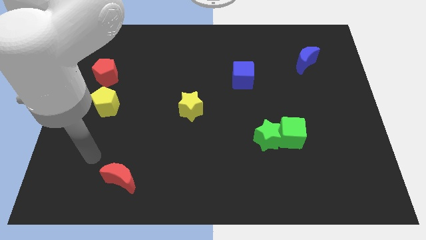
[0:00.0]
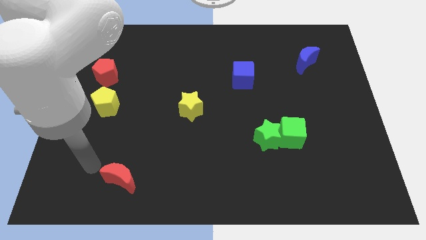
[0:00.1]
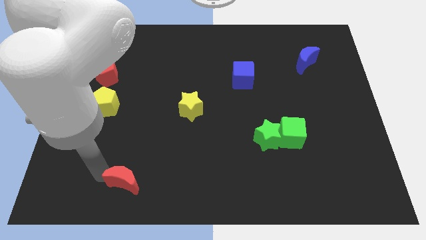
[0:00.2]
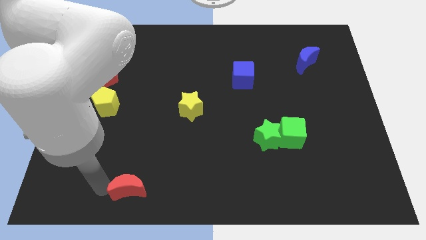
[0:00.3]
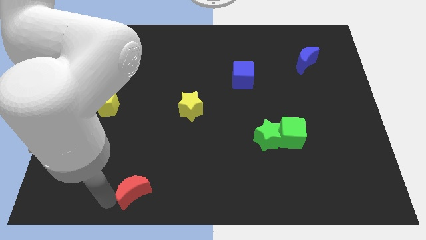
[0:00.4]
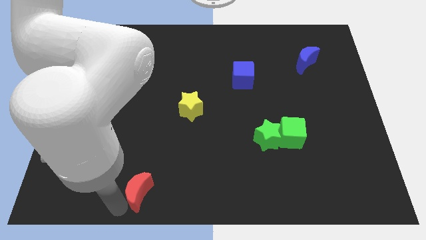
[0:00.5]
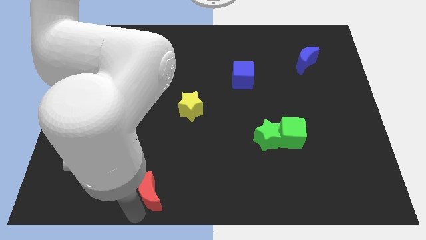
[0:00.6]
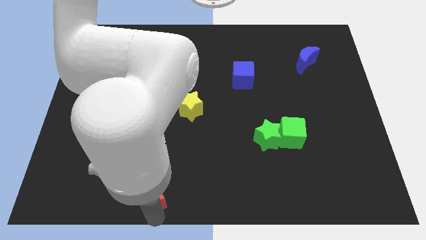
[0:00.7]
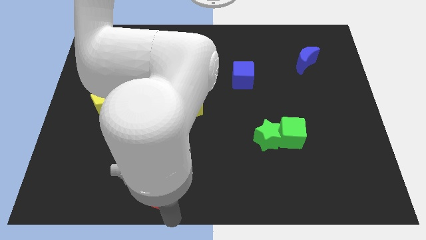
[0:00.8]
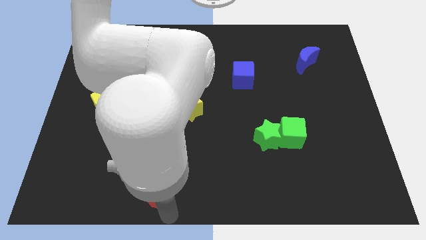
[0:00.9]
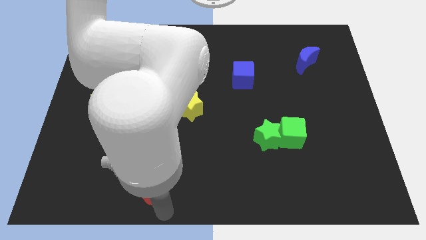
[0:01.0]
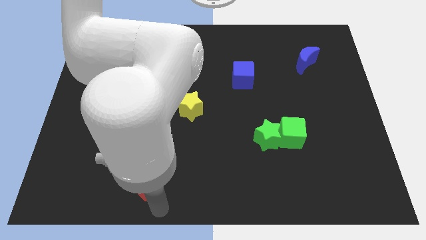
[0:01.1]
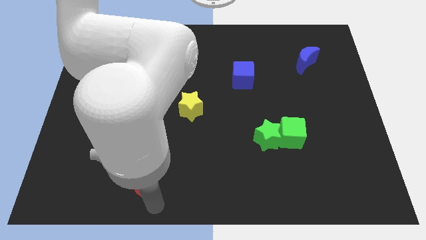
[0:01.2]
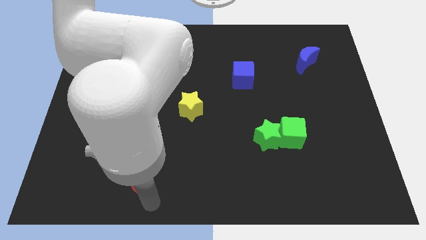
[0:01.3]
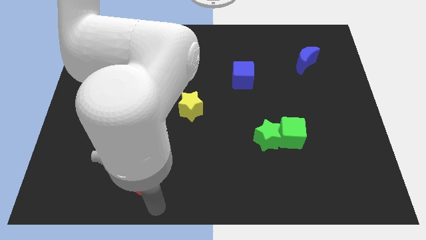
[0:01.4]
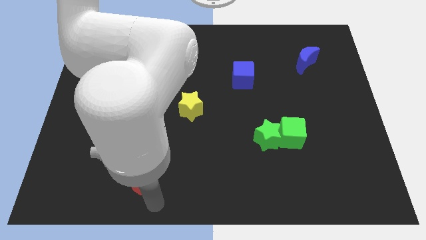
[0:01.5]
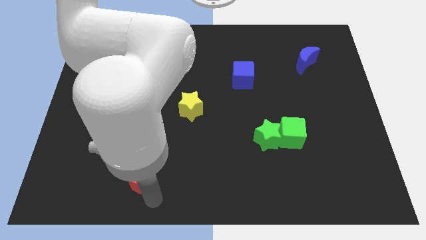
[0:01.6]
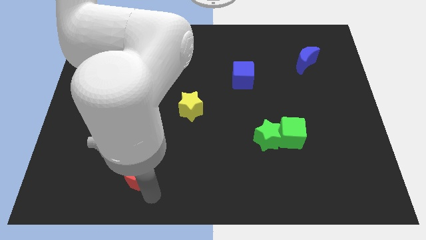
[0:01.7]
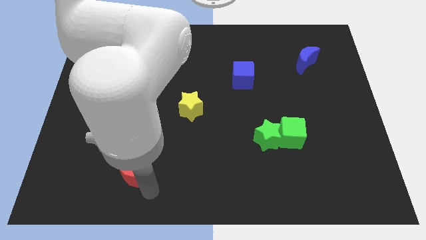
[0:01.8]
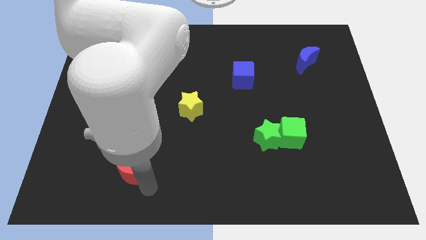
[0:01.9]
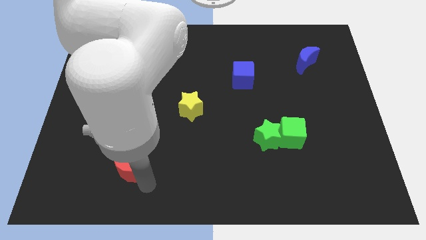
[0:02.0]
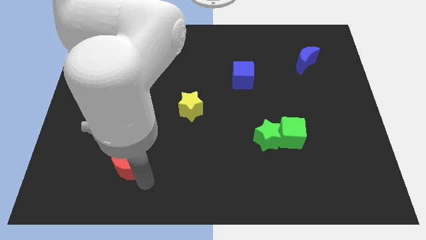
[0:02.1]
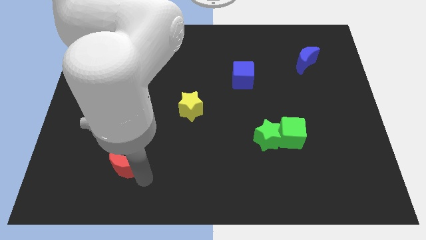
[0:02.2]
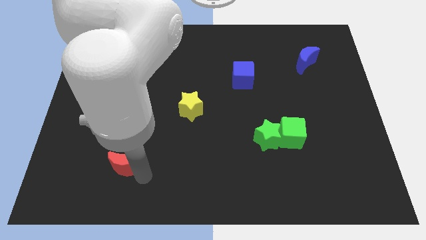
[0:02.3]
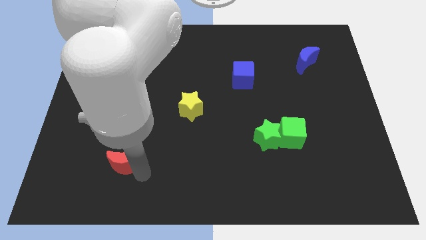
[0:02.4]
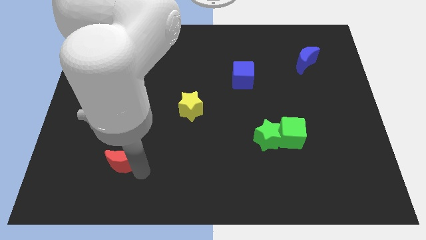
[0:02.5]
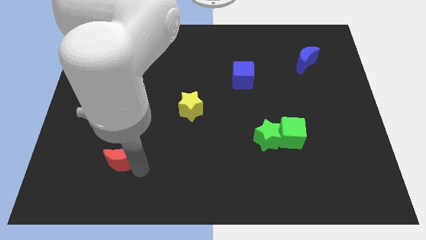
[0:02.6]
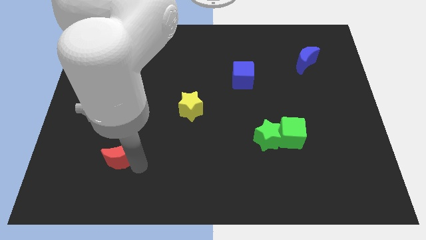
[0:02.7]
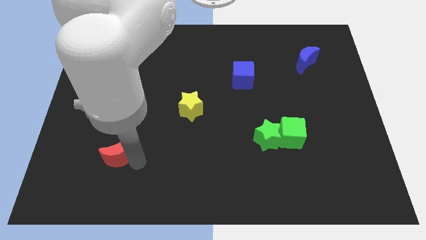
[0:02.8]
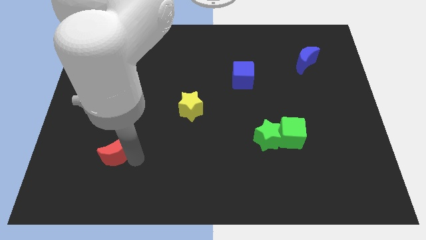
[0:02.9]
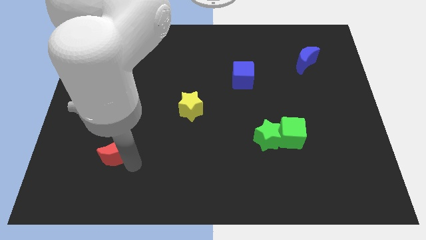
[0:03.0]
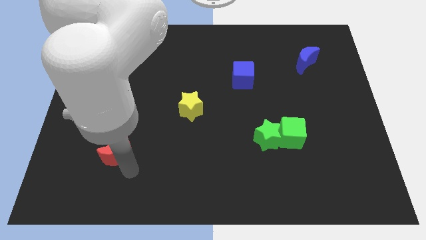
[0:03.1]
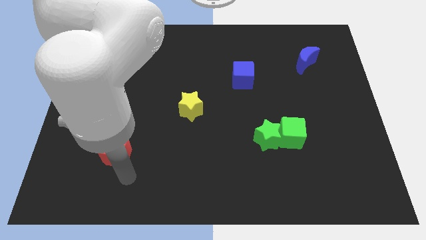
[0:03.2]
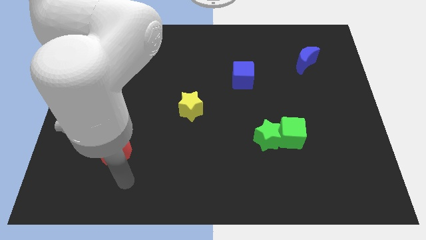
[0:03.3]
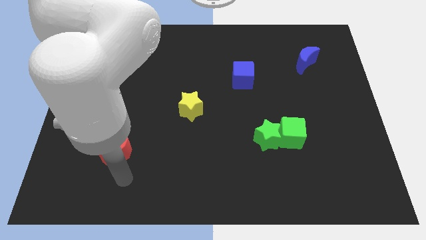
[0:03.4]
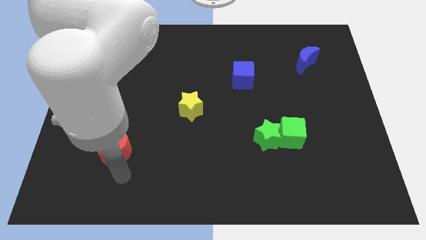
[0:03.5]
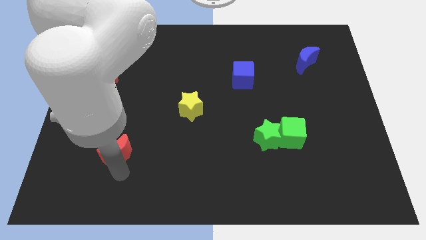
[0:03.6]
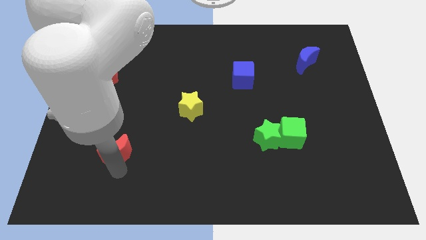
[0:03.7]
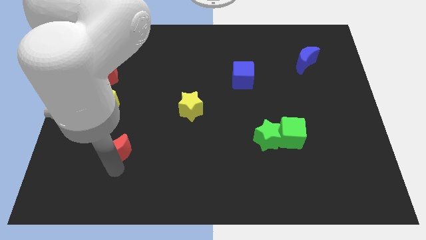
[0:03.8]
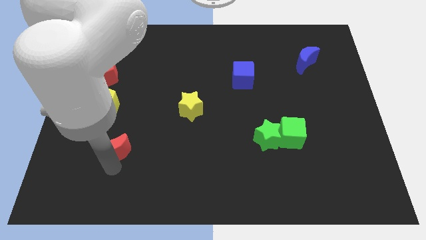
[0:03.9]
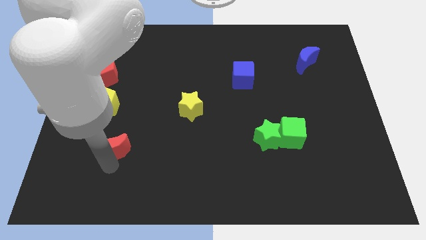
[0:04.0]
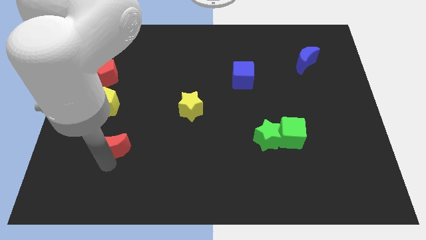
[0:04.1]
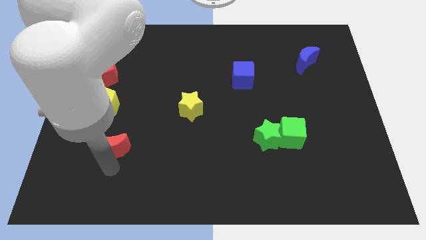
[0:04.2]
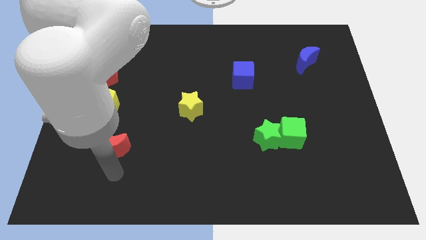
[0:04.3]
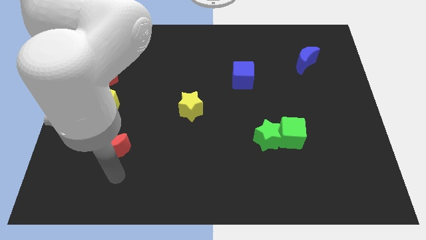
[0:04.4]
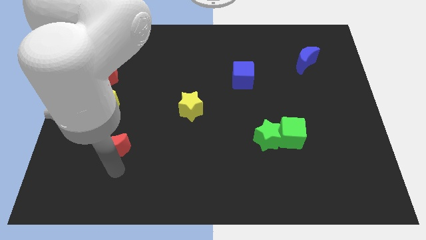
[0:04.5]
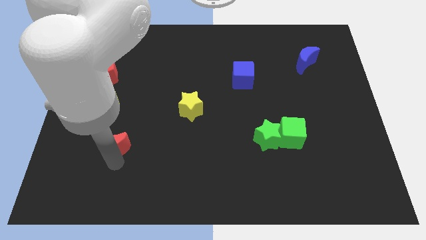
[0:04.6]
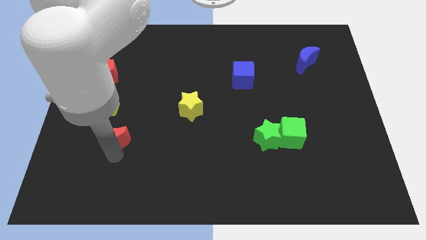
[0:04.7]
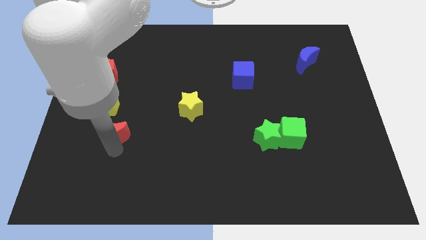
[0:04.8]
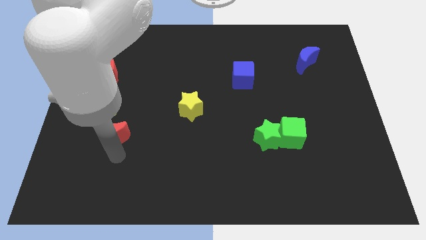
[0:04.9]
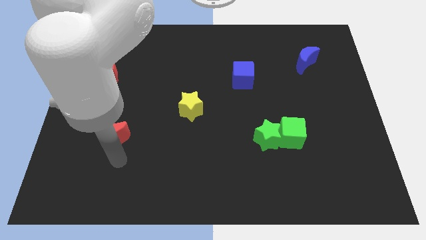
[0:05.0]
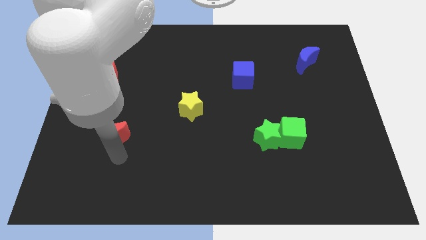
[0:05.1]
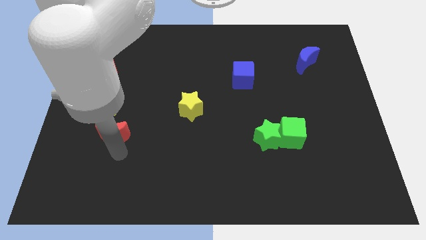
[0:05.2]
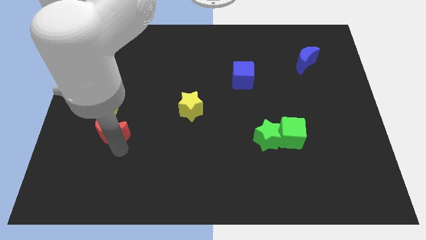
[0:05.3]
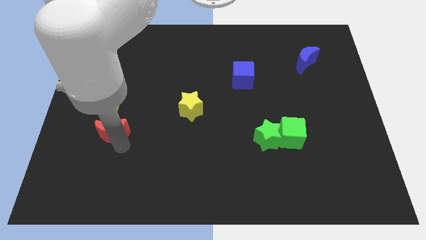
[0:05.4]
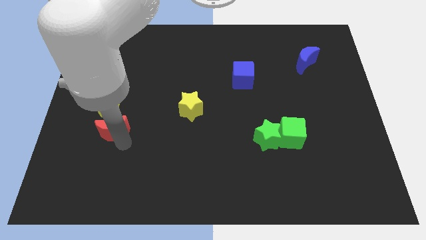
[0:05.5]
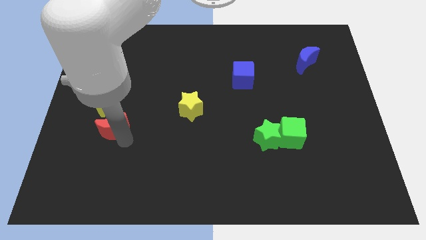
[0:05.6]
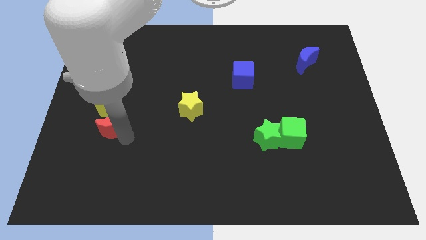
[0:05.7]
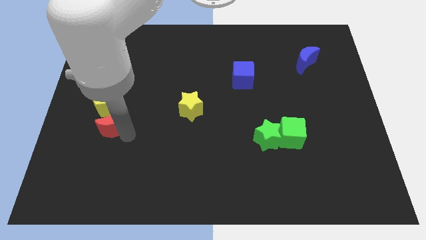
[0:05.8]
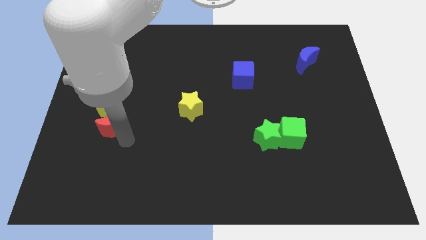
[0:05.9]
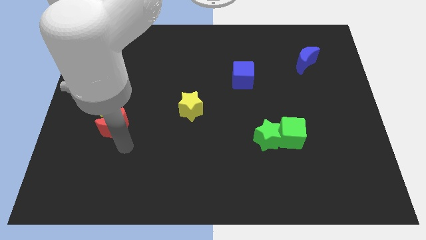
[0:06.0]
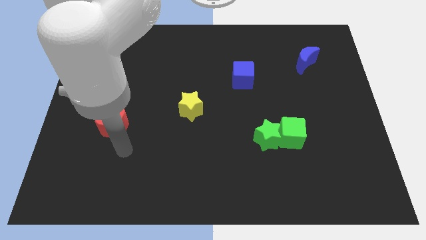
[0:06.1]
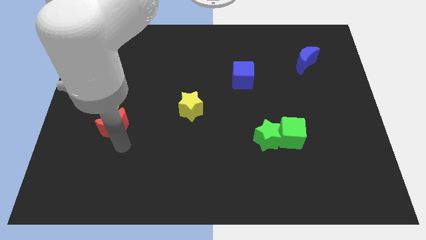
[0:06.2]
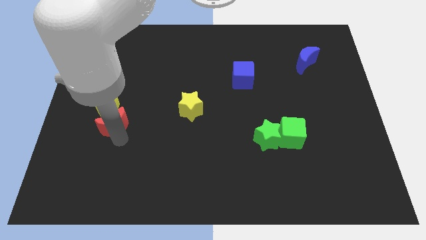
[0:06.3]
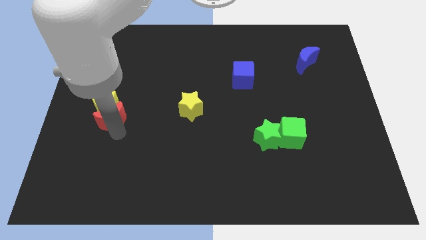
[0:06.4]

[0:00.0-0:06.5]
move the red moon next to the yellow pentagon

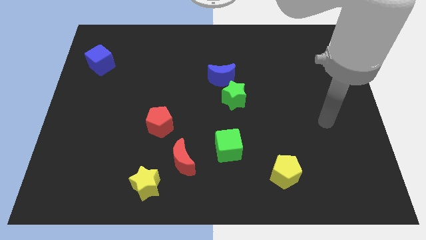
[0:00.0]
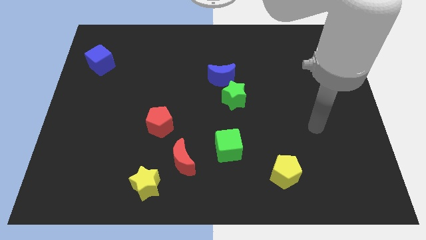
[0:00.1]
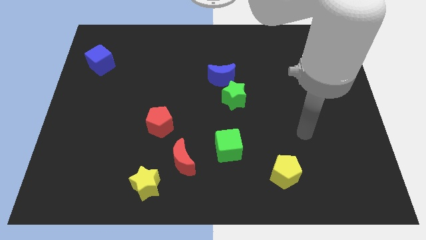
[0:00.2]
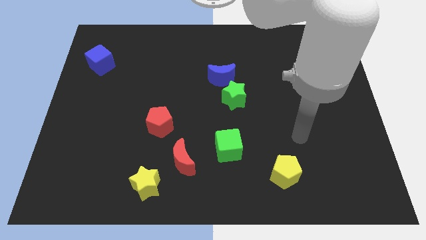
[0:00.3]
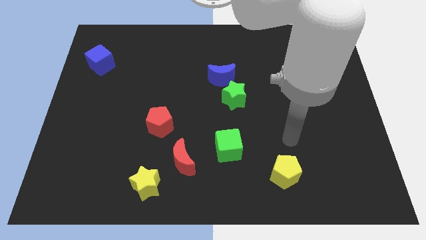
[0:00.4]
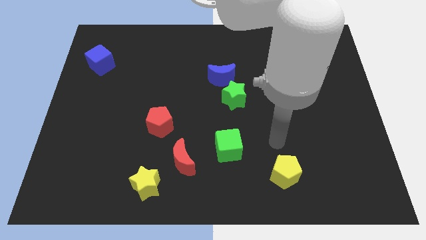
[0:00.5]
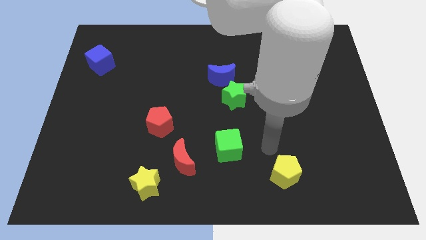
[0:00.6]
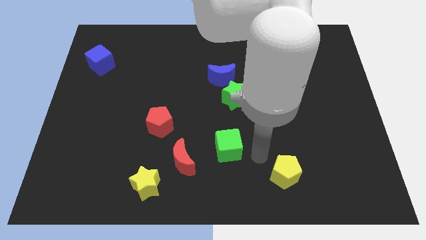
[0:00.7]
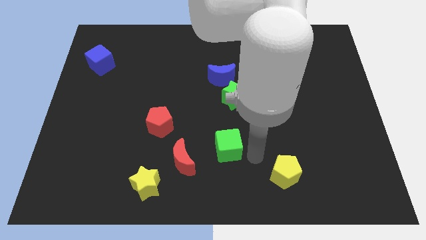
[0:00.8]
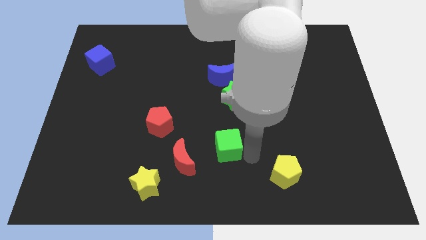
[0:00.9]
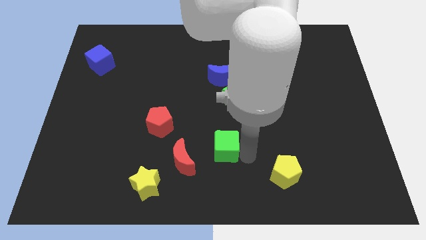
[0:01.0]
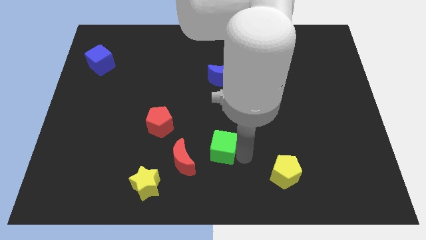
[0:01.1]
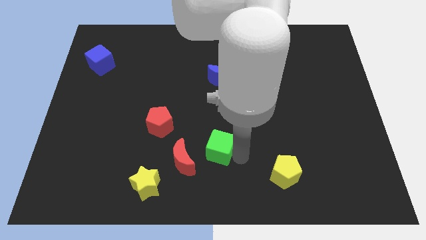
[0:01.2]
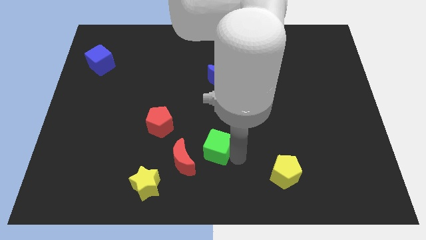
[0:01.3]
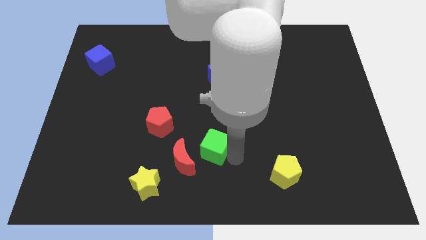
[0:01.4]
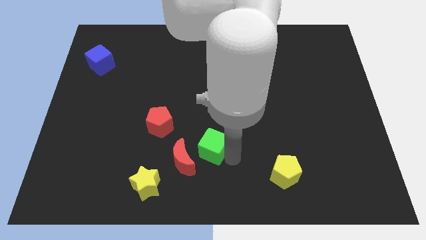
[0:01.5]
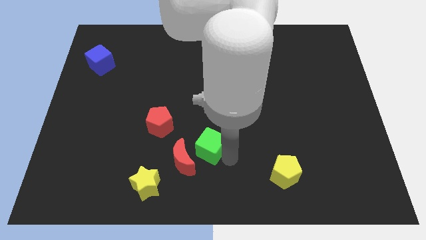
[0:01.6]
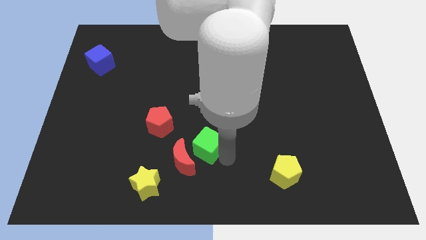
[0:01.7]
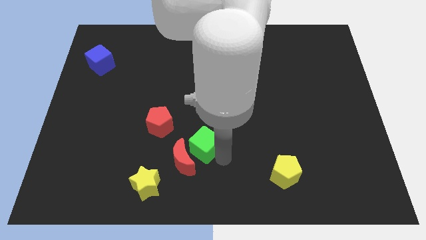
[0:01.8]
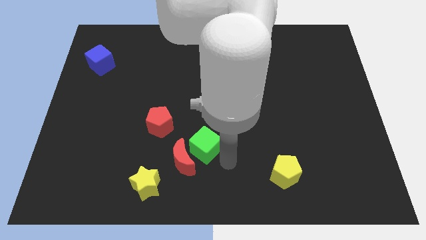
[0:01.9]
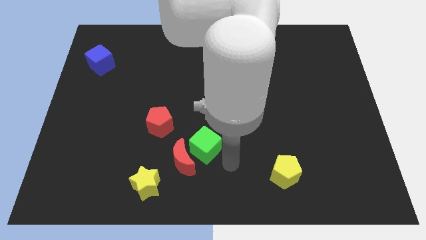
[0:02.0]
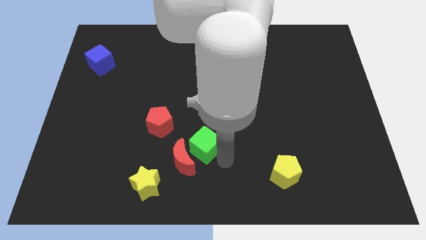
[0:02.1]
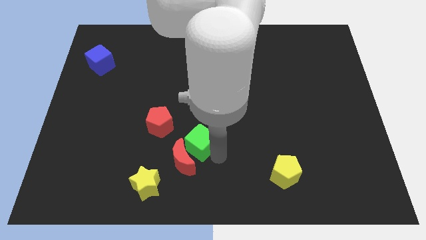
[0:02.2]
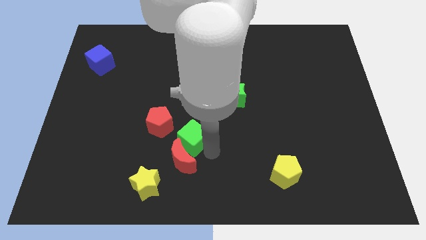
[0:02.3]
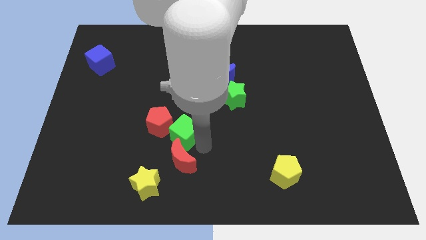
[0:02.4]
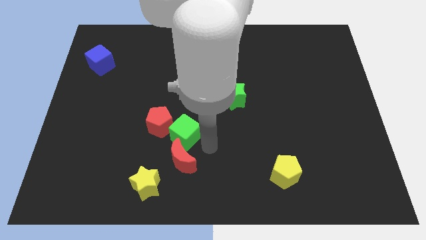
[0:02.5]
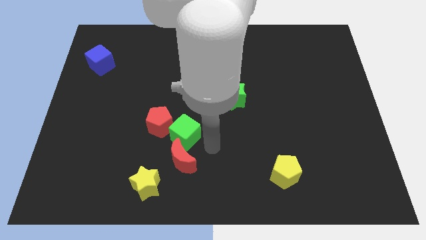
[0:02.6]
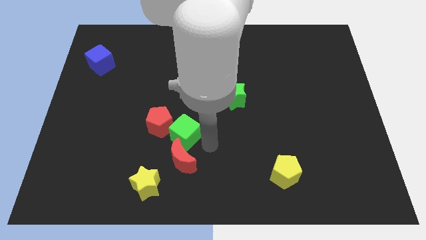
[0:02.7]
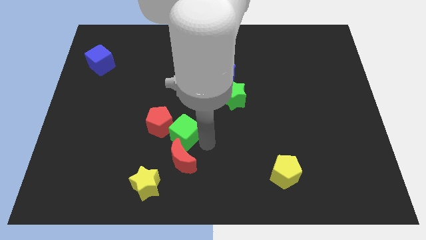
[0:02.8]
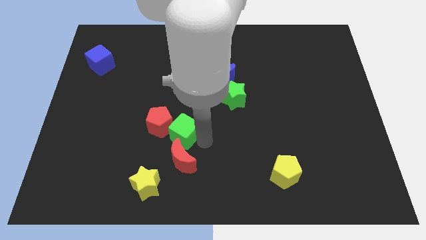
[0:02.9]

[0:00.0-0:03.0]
slide the green cube towards the red pentagon
